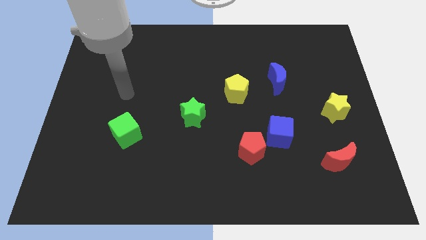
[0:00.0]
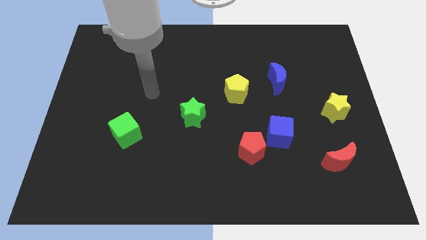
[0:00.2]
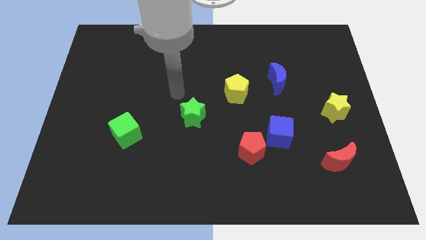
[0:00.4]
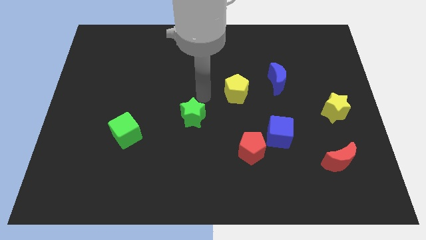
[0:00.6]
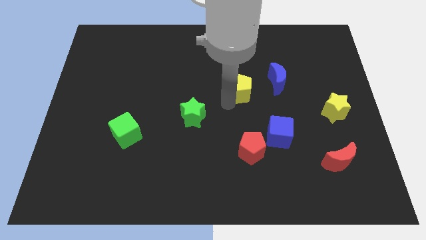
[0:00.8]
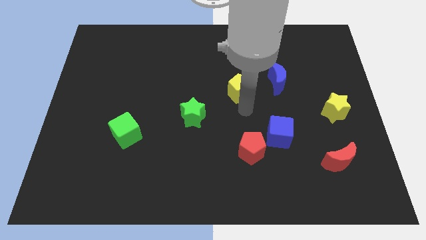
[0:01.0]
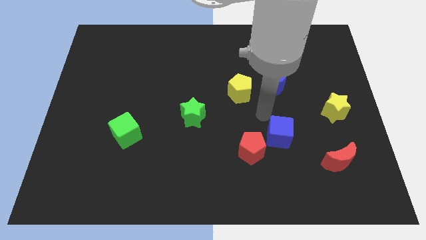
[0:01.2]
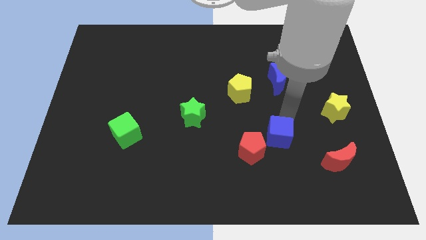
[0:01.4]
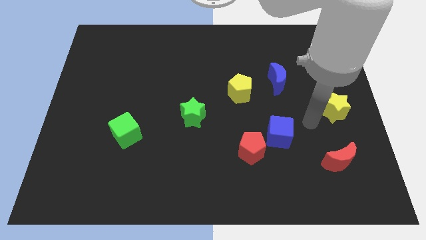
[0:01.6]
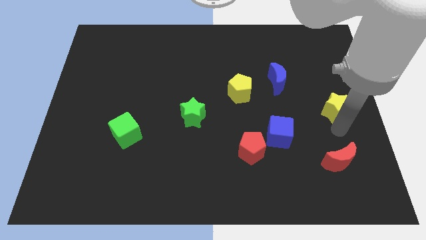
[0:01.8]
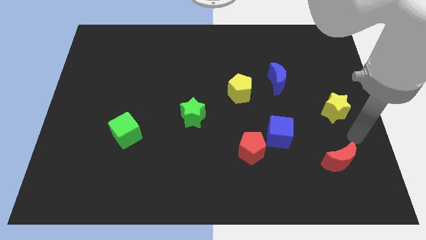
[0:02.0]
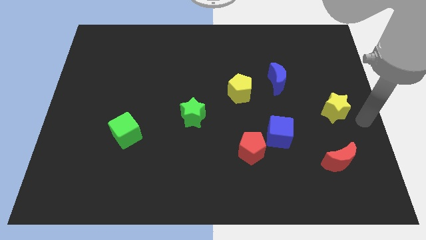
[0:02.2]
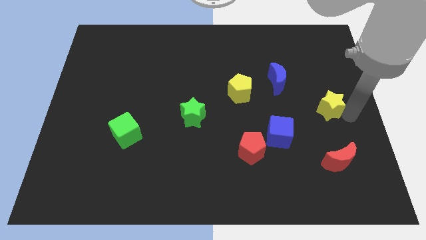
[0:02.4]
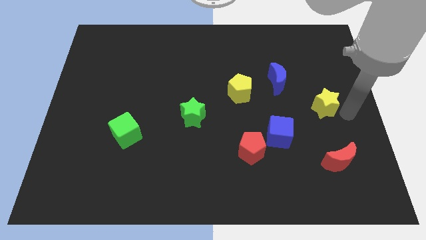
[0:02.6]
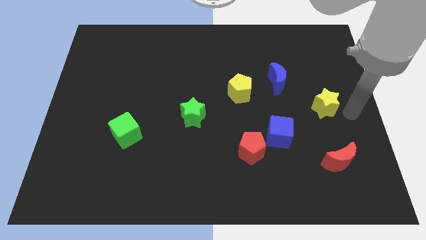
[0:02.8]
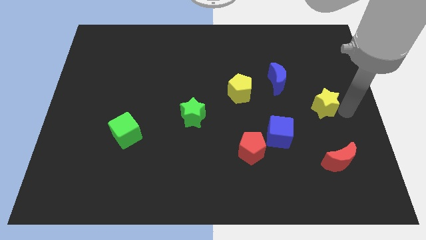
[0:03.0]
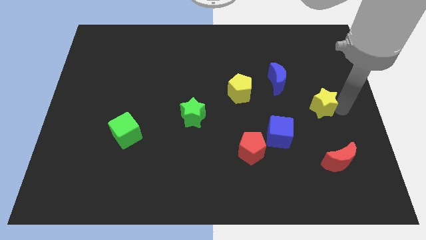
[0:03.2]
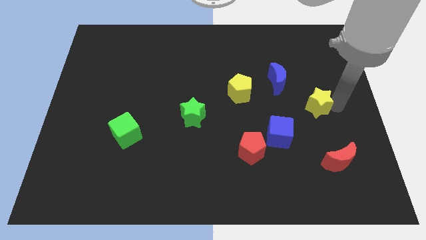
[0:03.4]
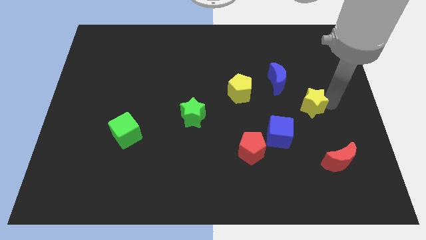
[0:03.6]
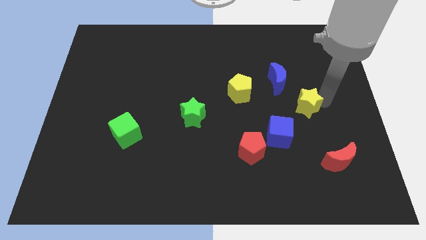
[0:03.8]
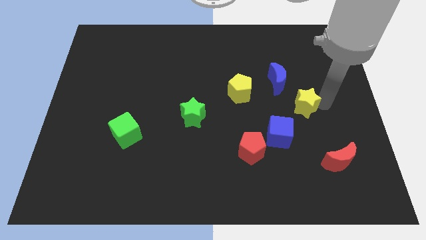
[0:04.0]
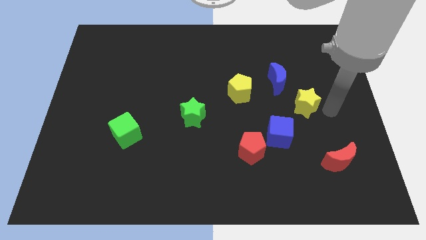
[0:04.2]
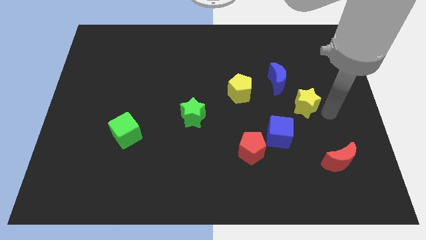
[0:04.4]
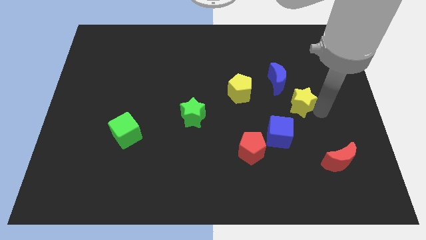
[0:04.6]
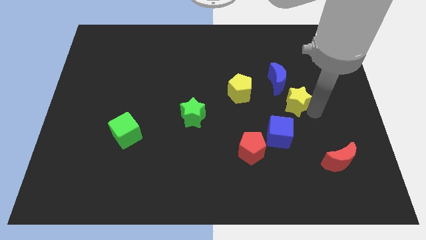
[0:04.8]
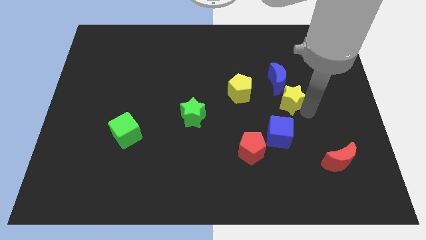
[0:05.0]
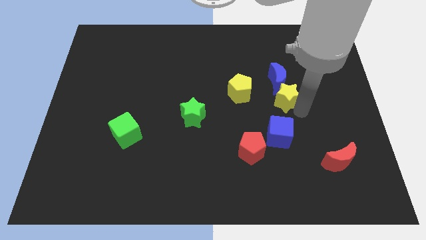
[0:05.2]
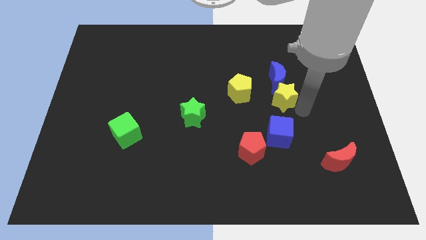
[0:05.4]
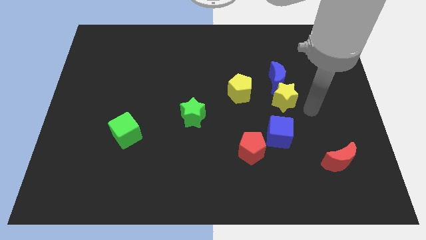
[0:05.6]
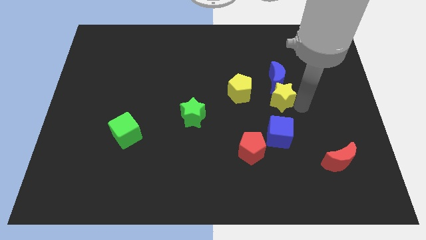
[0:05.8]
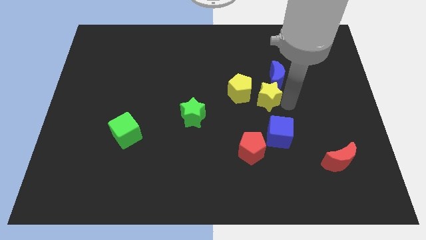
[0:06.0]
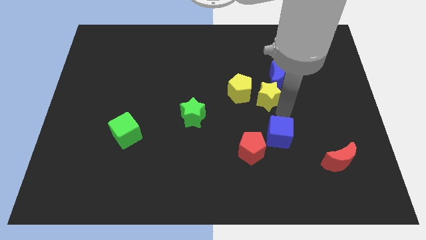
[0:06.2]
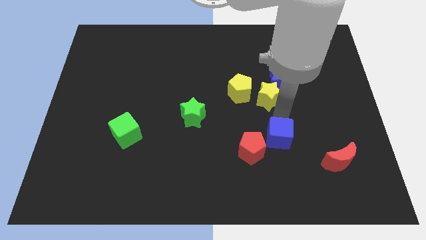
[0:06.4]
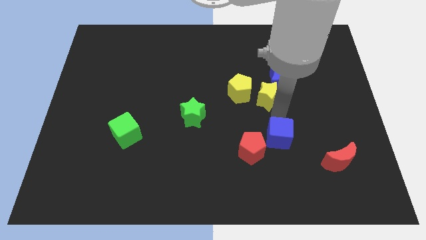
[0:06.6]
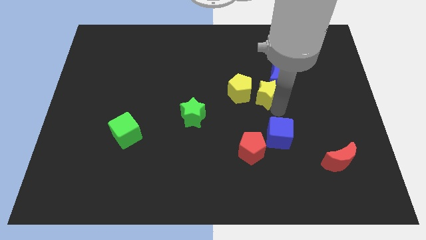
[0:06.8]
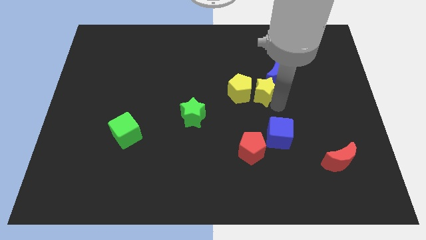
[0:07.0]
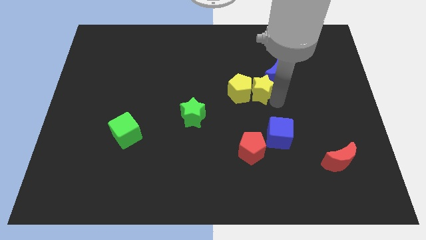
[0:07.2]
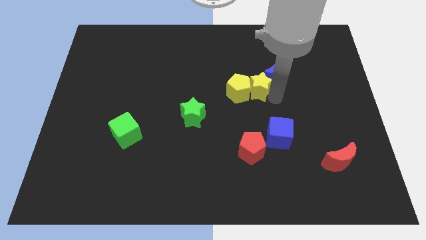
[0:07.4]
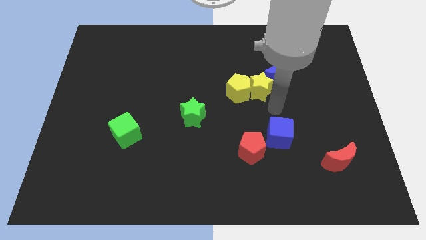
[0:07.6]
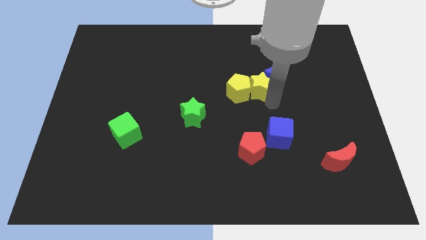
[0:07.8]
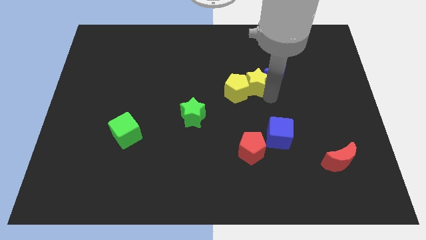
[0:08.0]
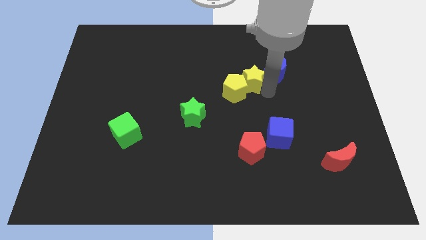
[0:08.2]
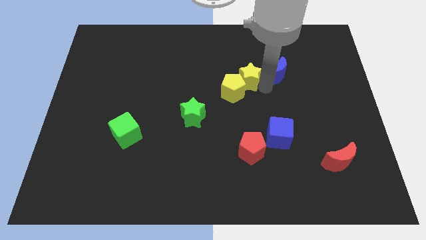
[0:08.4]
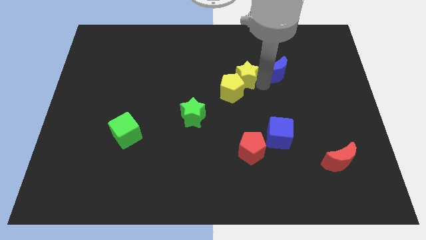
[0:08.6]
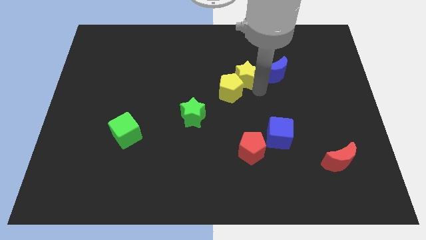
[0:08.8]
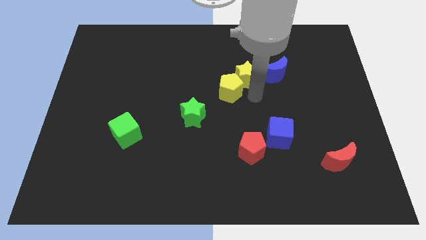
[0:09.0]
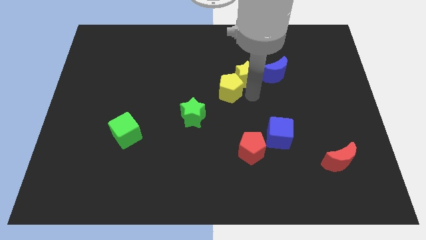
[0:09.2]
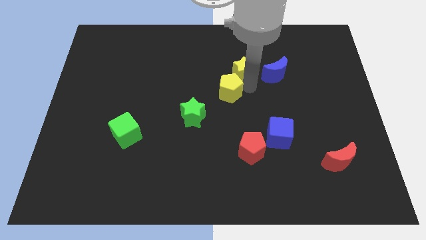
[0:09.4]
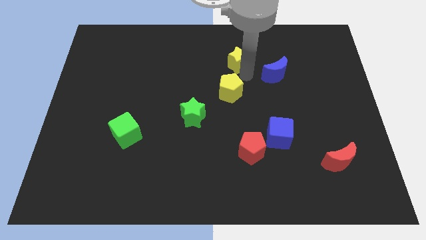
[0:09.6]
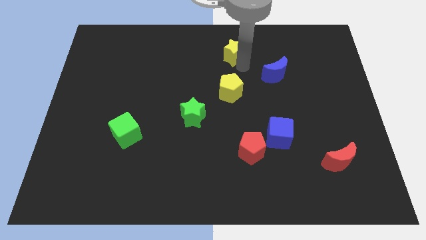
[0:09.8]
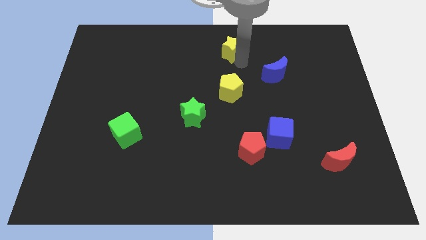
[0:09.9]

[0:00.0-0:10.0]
put the yellow star to the top side
